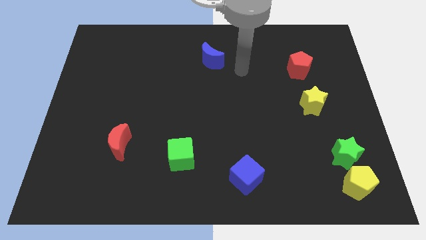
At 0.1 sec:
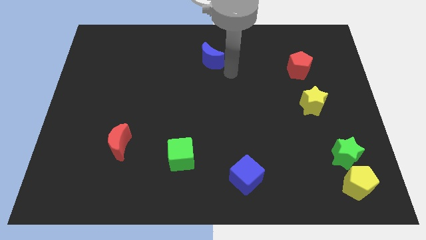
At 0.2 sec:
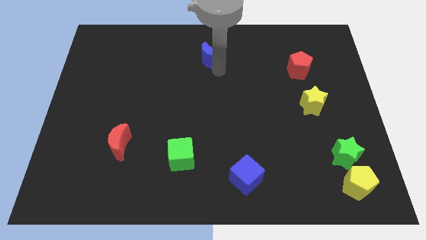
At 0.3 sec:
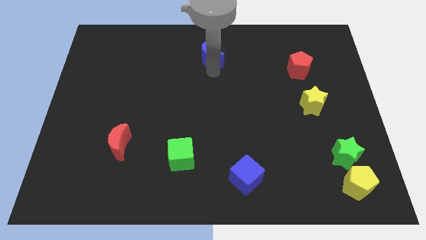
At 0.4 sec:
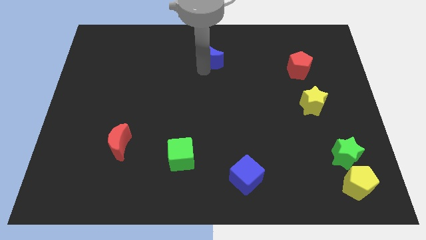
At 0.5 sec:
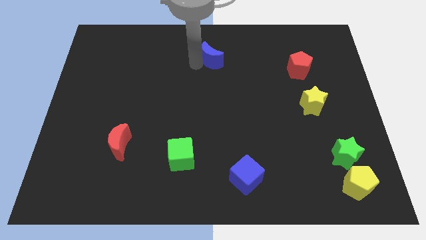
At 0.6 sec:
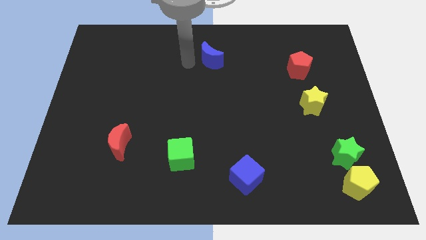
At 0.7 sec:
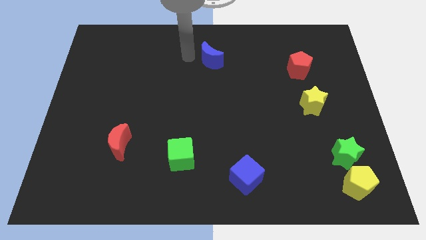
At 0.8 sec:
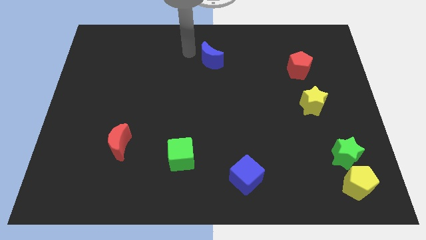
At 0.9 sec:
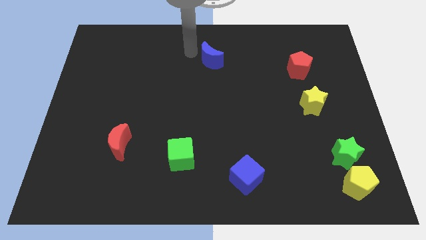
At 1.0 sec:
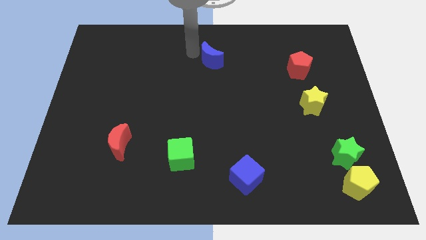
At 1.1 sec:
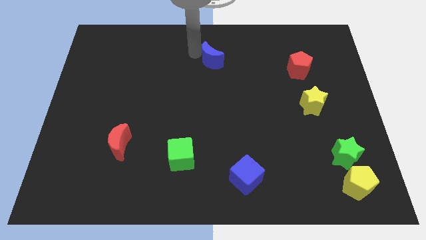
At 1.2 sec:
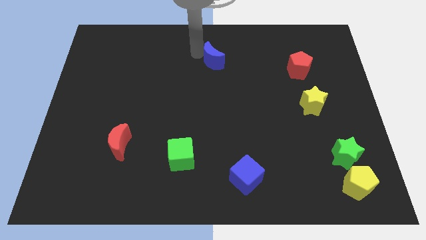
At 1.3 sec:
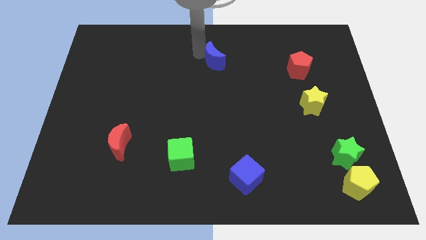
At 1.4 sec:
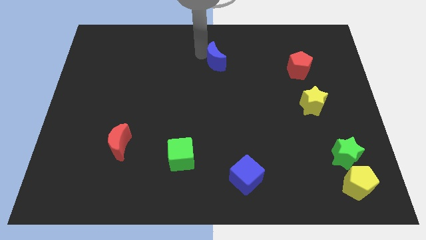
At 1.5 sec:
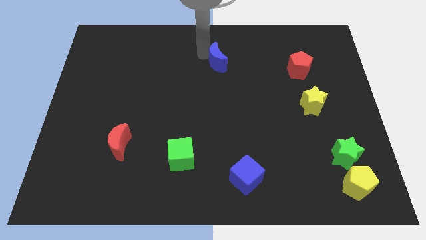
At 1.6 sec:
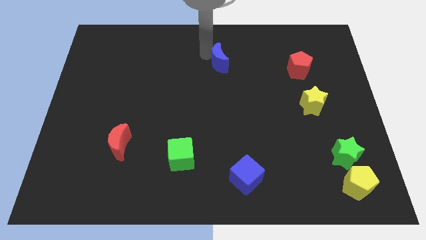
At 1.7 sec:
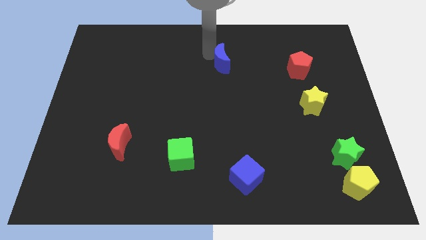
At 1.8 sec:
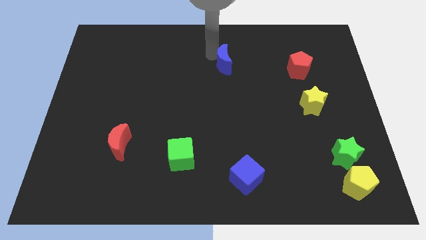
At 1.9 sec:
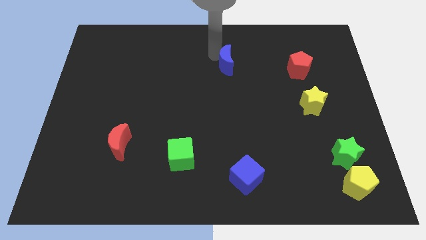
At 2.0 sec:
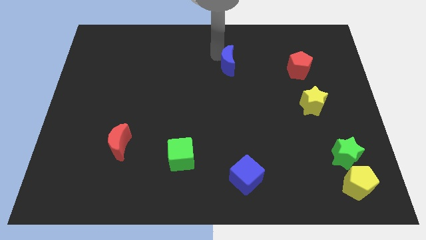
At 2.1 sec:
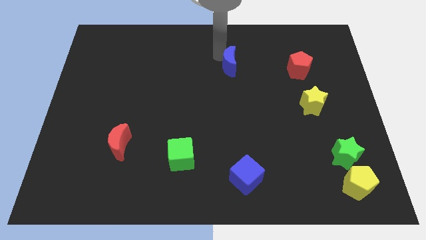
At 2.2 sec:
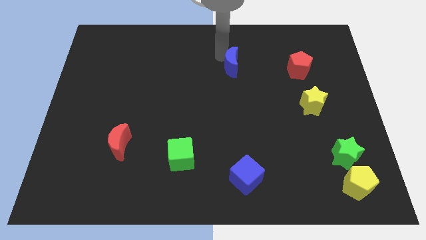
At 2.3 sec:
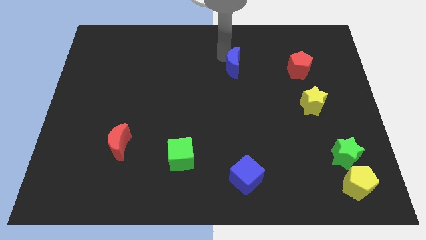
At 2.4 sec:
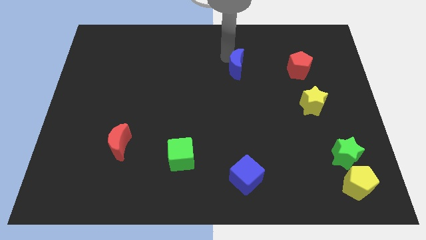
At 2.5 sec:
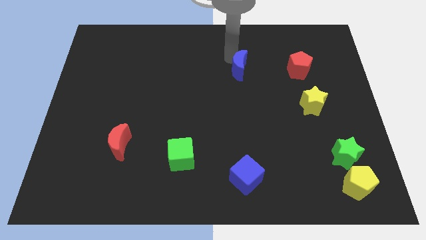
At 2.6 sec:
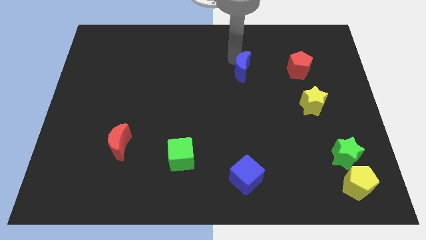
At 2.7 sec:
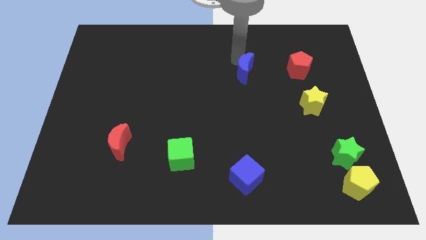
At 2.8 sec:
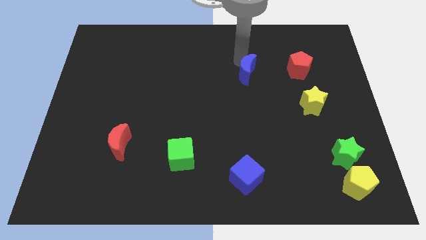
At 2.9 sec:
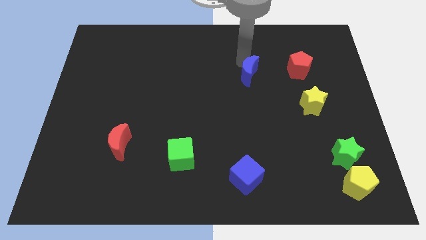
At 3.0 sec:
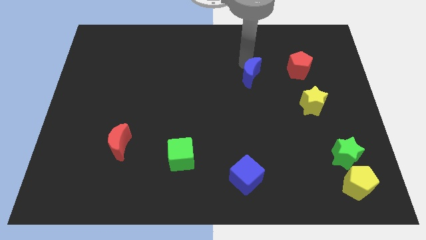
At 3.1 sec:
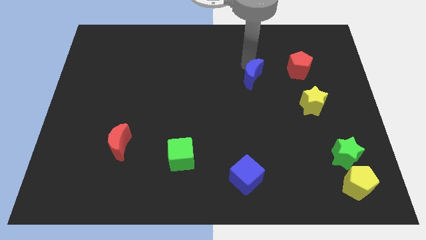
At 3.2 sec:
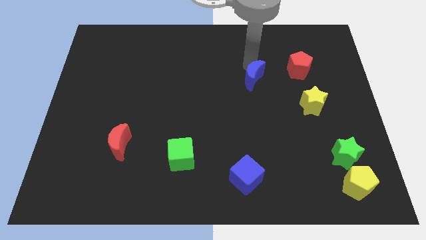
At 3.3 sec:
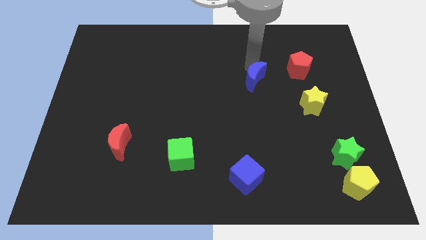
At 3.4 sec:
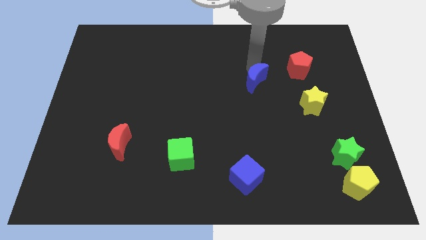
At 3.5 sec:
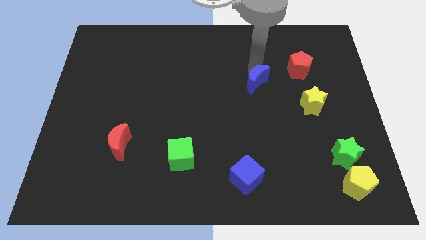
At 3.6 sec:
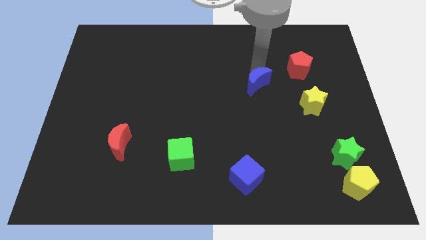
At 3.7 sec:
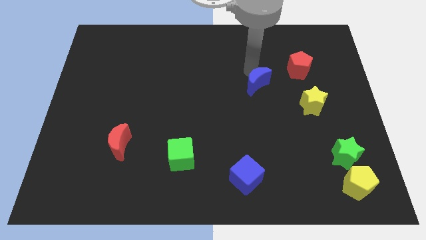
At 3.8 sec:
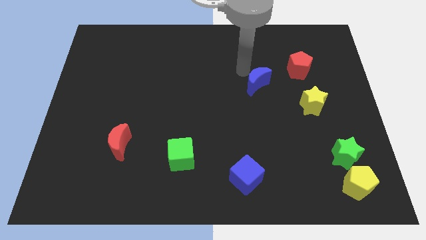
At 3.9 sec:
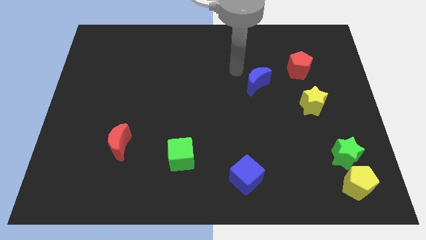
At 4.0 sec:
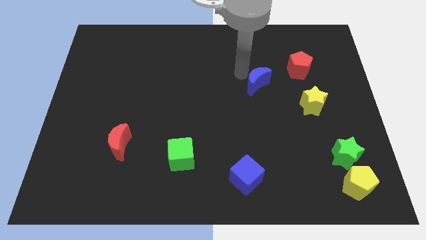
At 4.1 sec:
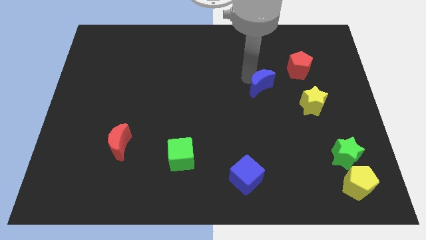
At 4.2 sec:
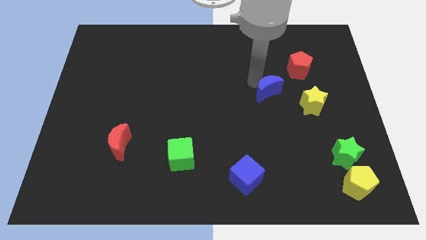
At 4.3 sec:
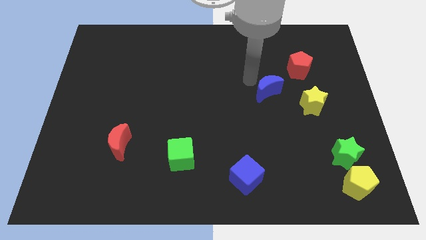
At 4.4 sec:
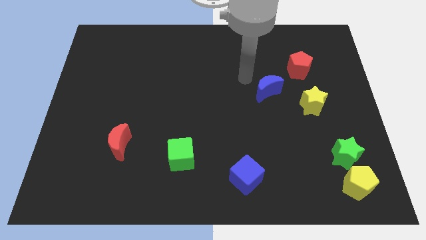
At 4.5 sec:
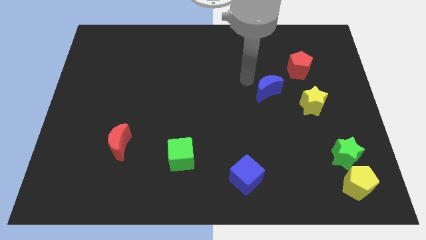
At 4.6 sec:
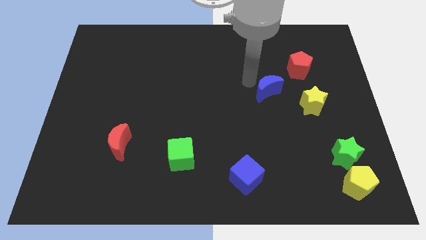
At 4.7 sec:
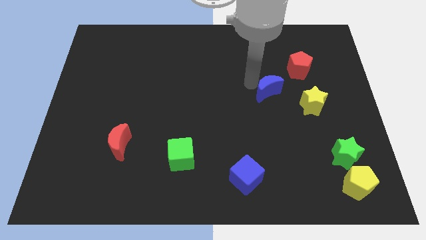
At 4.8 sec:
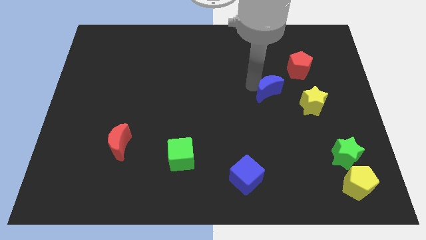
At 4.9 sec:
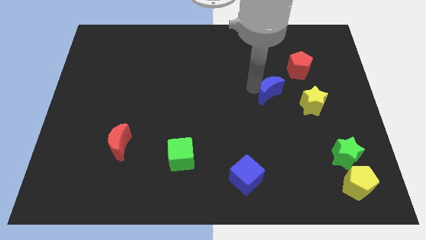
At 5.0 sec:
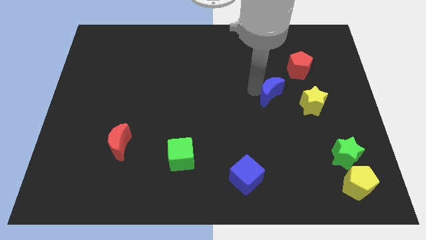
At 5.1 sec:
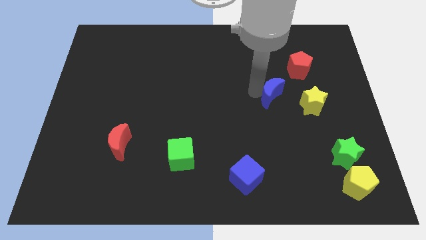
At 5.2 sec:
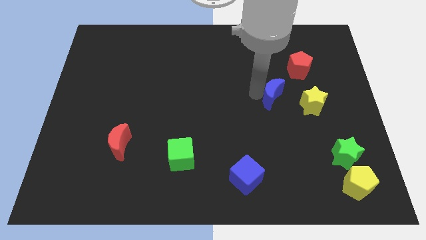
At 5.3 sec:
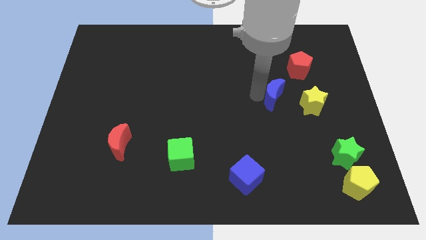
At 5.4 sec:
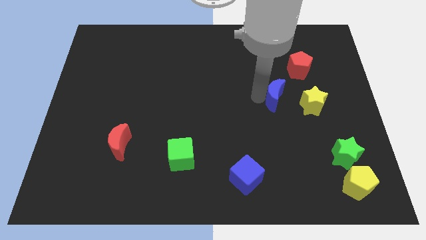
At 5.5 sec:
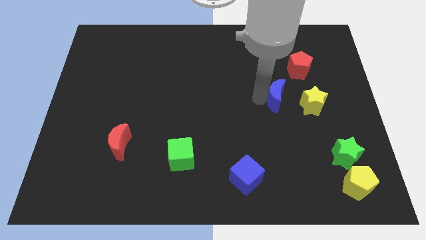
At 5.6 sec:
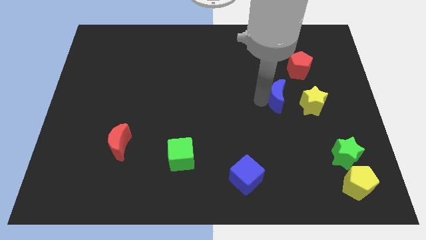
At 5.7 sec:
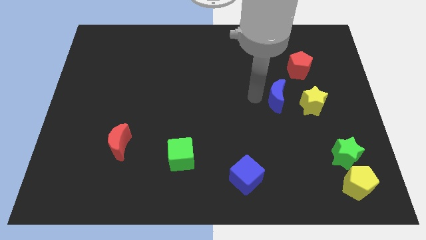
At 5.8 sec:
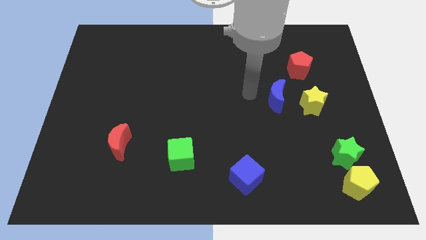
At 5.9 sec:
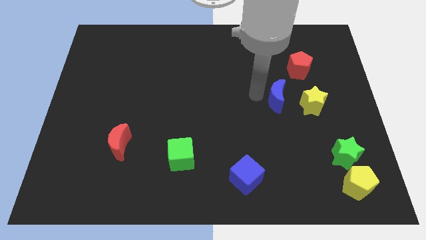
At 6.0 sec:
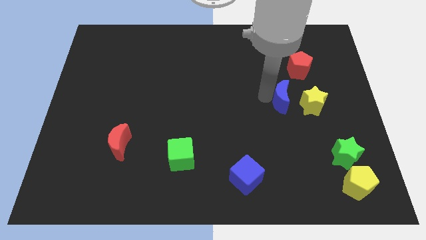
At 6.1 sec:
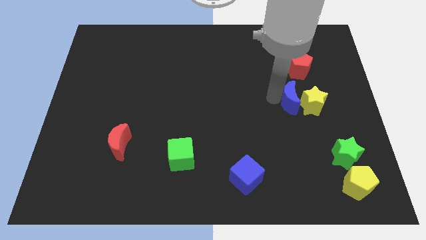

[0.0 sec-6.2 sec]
move the blue moon next to the yellow star

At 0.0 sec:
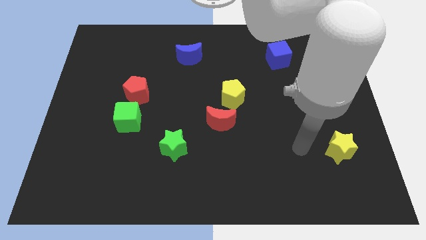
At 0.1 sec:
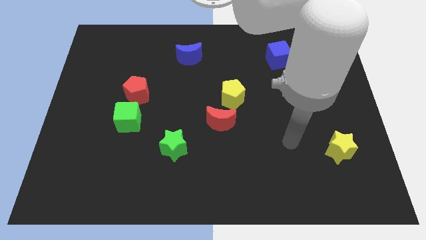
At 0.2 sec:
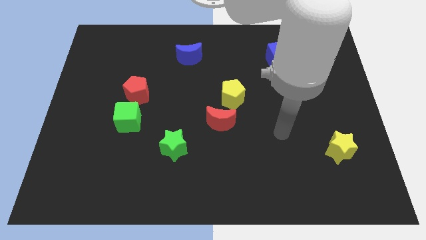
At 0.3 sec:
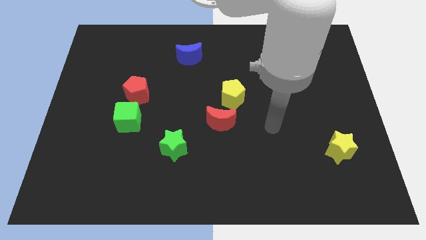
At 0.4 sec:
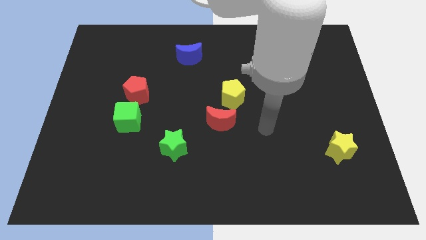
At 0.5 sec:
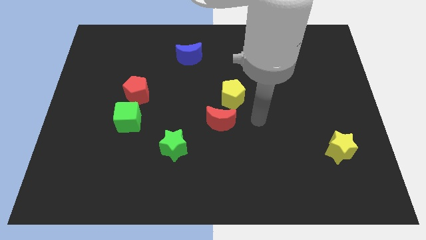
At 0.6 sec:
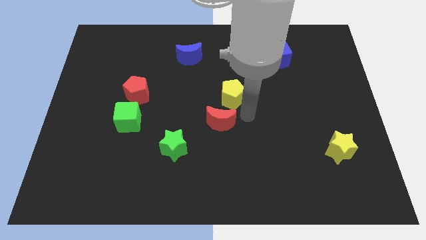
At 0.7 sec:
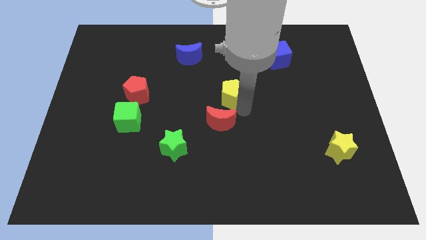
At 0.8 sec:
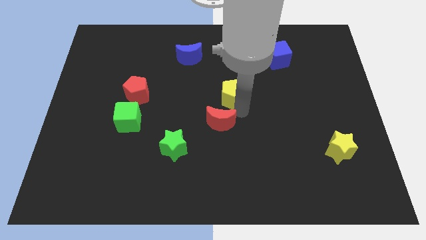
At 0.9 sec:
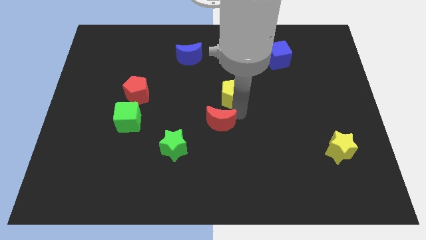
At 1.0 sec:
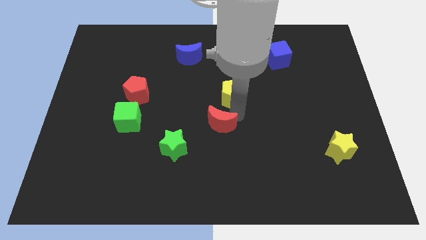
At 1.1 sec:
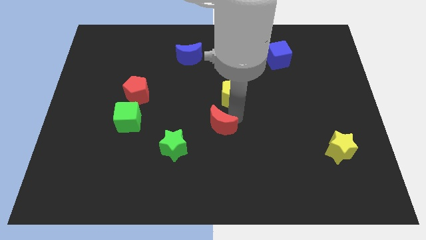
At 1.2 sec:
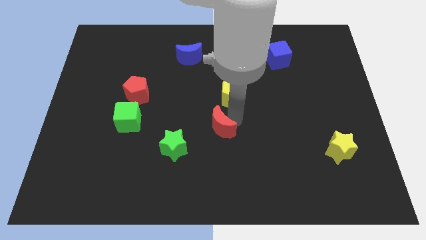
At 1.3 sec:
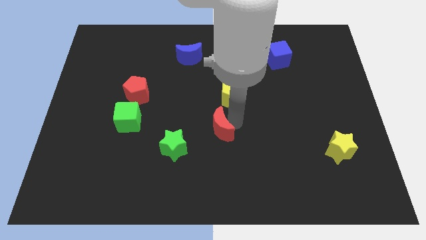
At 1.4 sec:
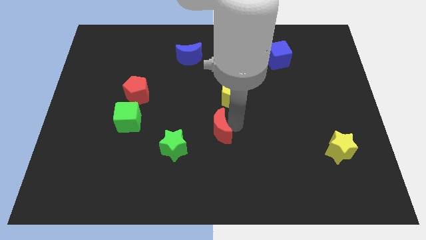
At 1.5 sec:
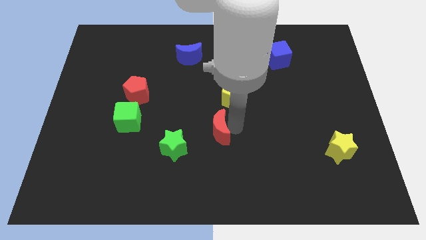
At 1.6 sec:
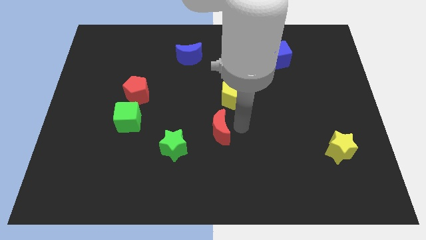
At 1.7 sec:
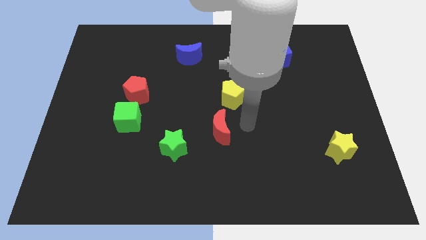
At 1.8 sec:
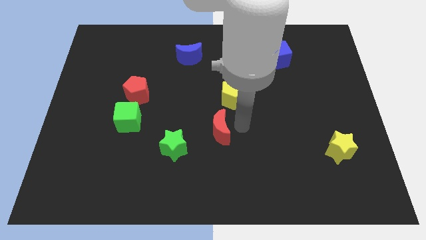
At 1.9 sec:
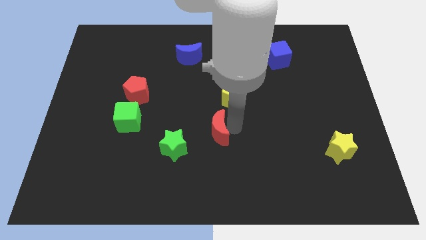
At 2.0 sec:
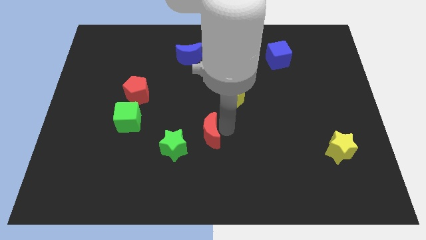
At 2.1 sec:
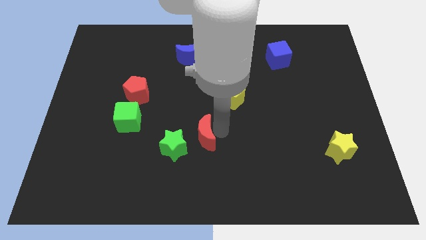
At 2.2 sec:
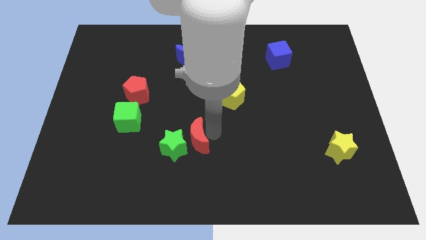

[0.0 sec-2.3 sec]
put the red moon towards the green star
